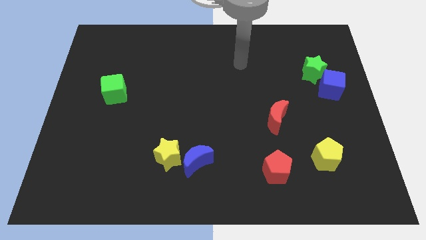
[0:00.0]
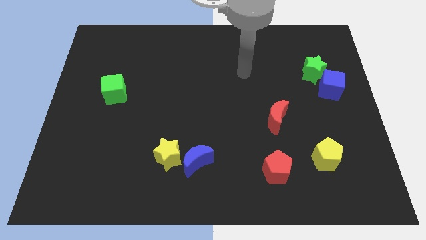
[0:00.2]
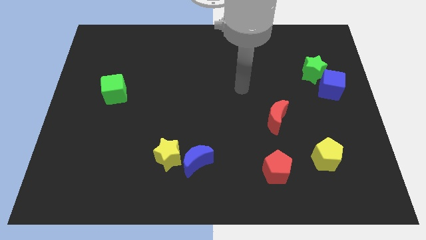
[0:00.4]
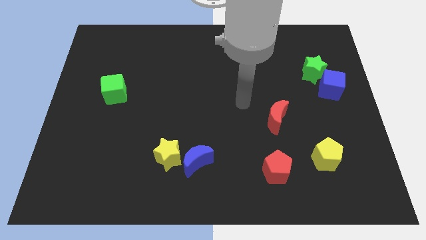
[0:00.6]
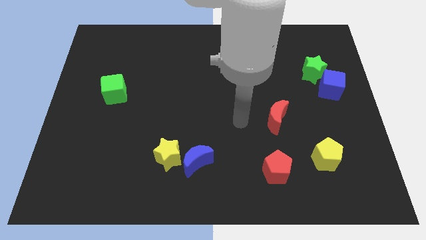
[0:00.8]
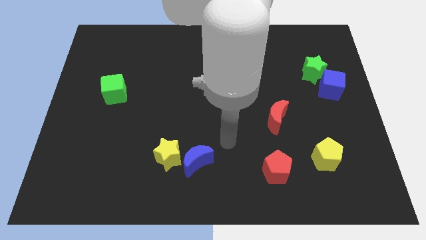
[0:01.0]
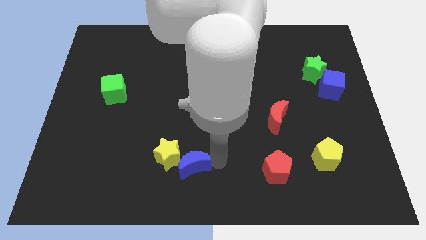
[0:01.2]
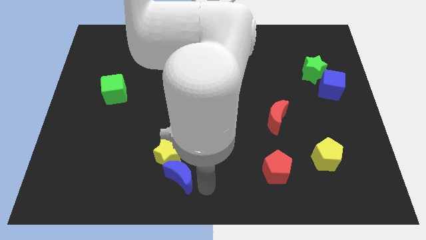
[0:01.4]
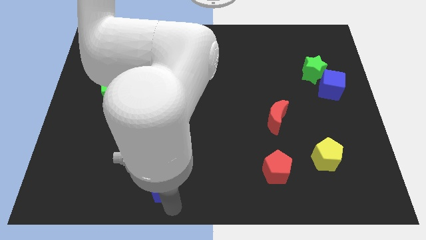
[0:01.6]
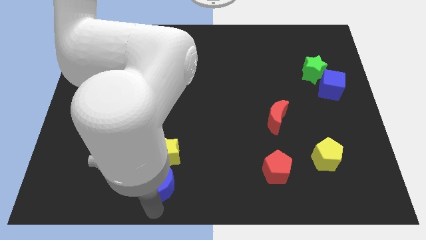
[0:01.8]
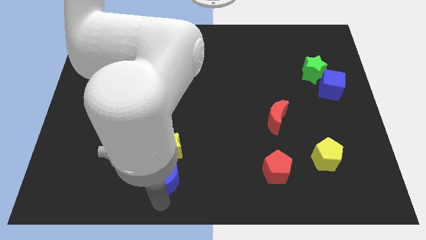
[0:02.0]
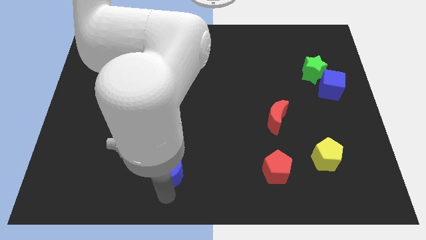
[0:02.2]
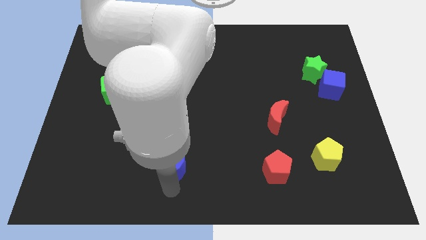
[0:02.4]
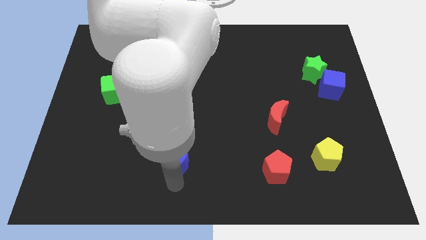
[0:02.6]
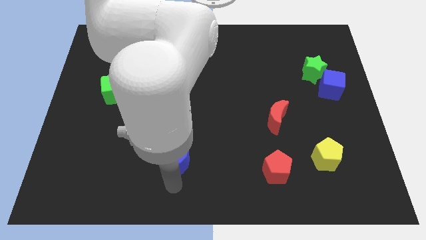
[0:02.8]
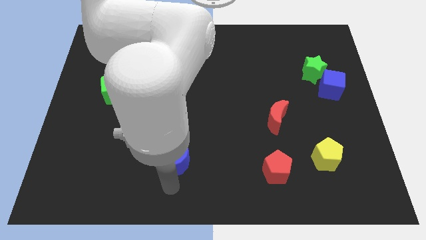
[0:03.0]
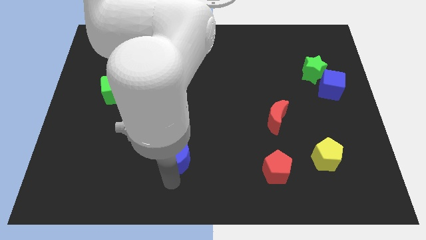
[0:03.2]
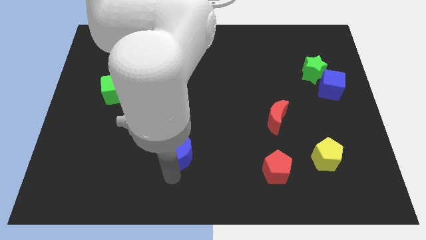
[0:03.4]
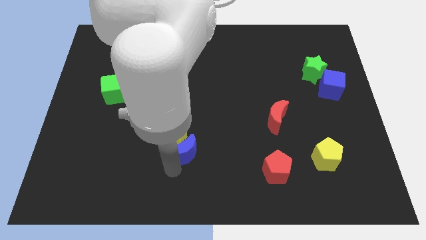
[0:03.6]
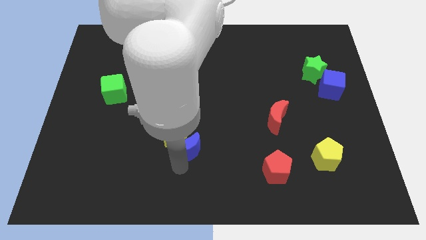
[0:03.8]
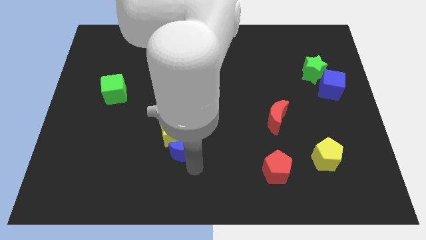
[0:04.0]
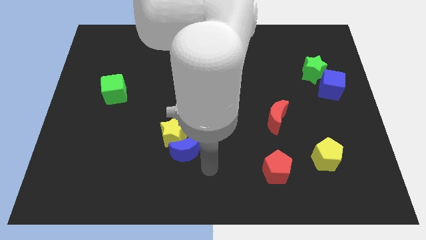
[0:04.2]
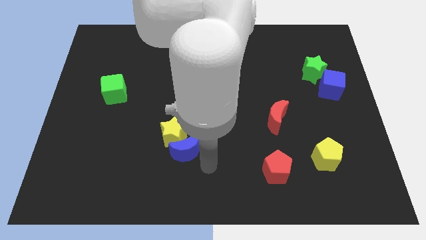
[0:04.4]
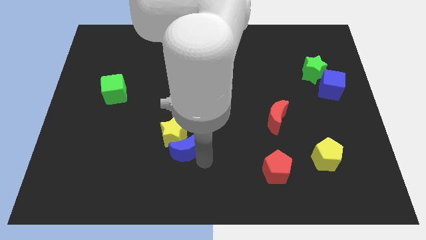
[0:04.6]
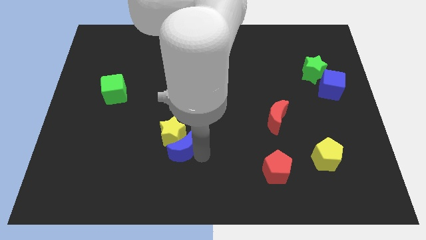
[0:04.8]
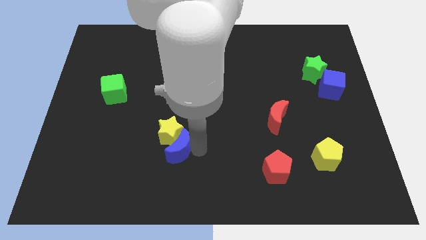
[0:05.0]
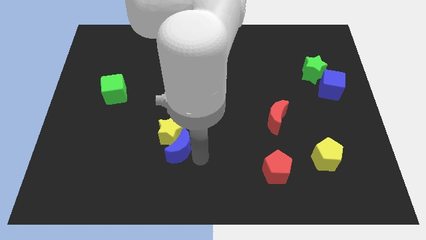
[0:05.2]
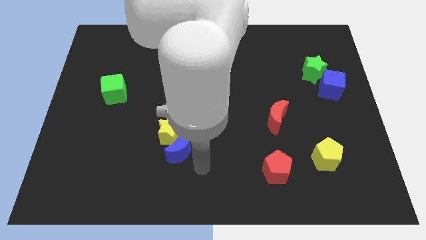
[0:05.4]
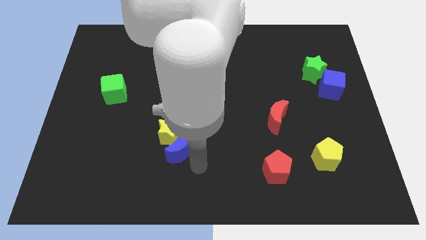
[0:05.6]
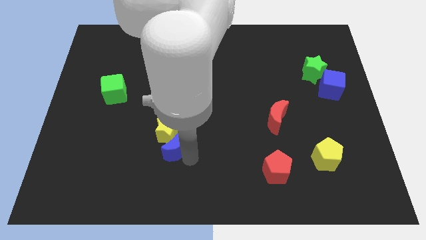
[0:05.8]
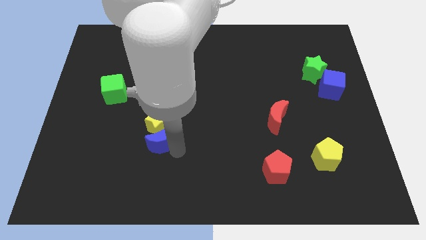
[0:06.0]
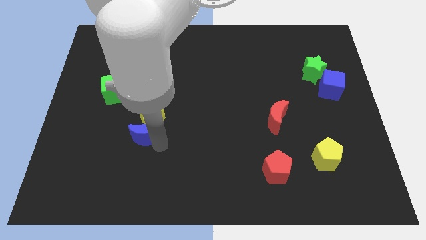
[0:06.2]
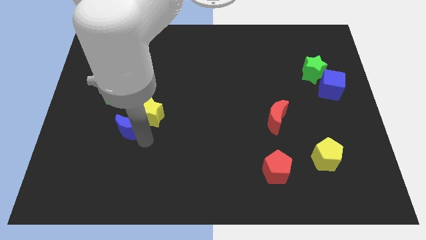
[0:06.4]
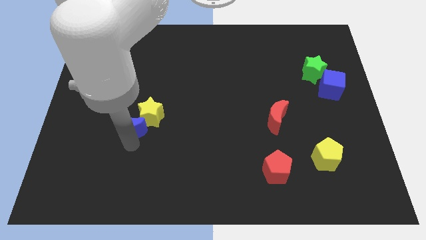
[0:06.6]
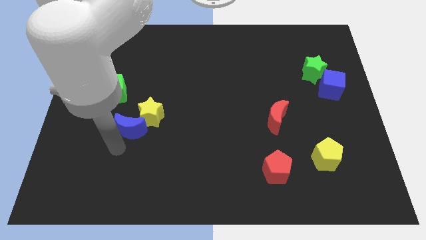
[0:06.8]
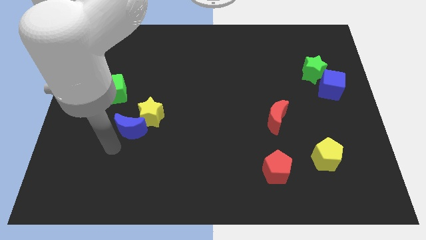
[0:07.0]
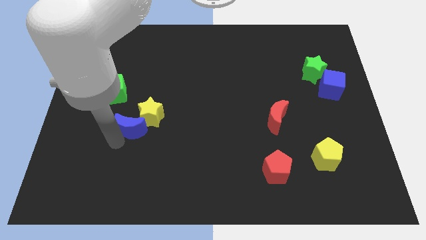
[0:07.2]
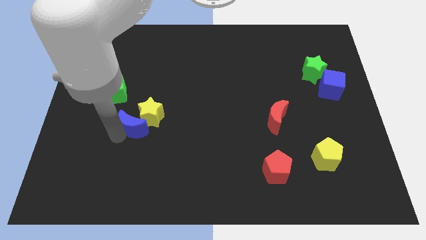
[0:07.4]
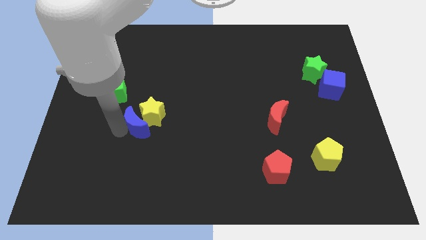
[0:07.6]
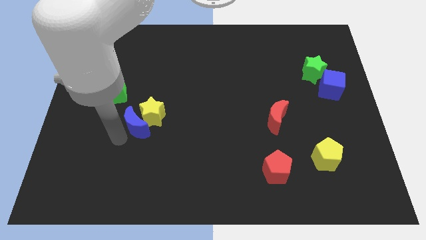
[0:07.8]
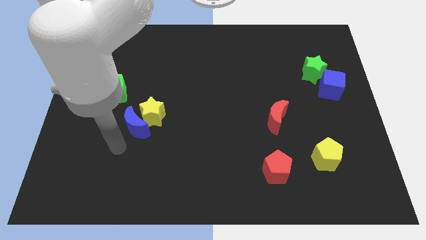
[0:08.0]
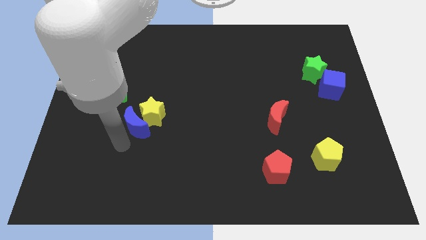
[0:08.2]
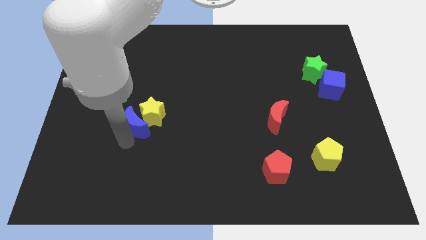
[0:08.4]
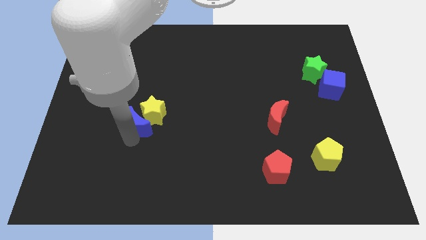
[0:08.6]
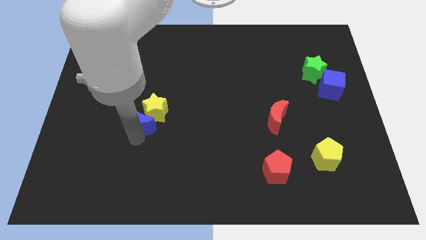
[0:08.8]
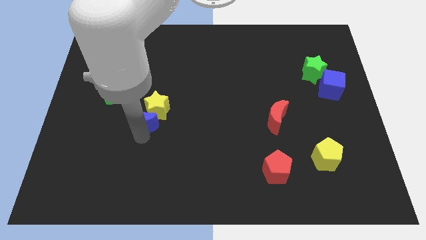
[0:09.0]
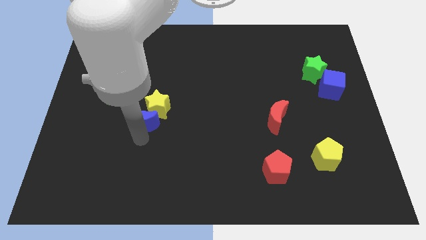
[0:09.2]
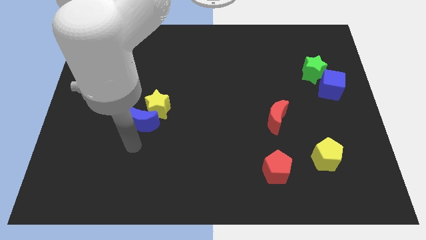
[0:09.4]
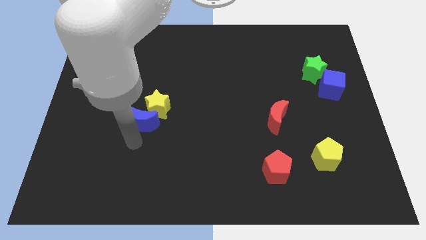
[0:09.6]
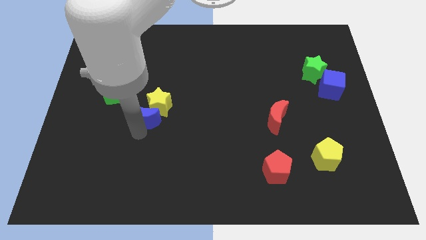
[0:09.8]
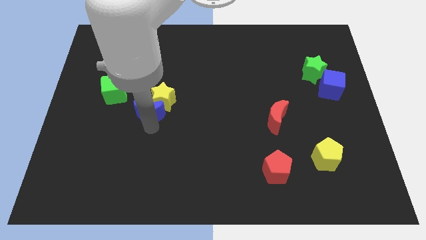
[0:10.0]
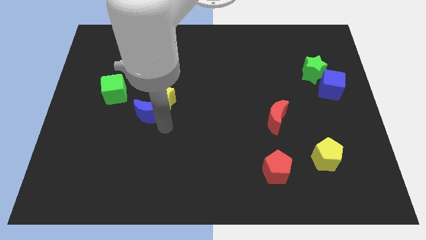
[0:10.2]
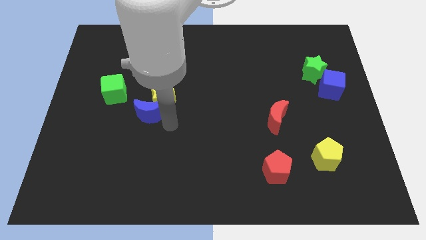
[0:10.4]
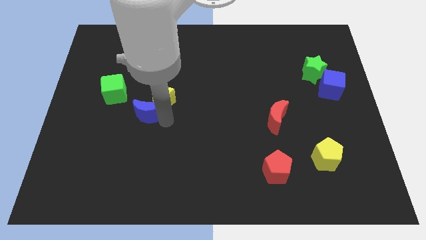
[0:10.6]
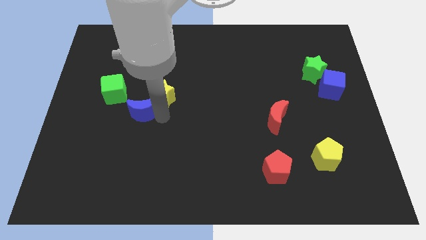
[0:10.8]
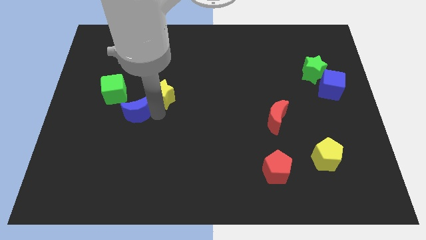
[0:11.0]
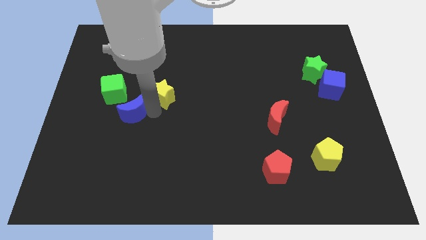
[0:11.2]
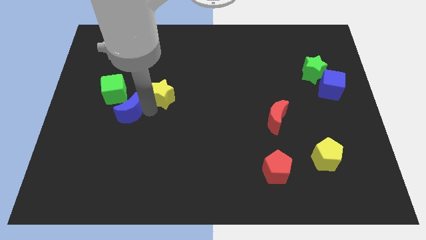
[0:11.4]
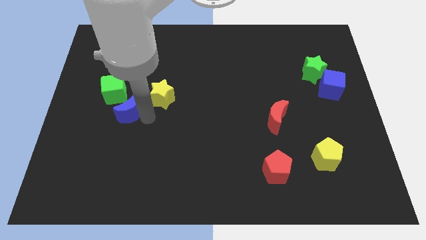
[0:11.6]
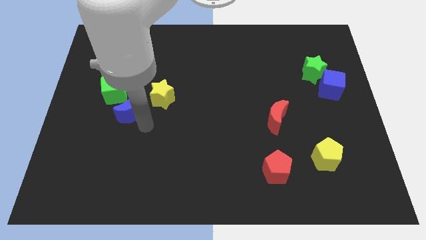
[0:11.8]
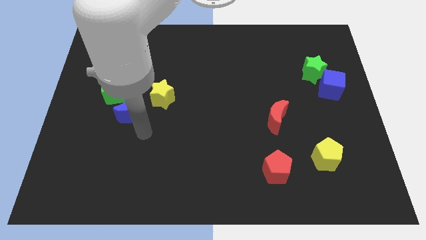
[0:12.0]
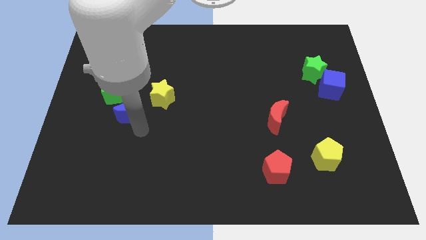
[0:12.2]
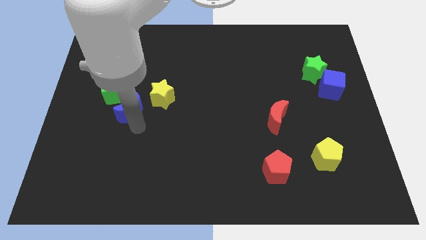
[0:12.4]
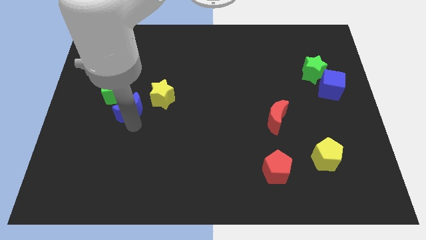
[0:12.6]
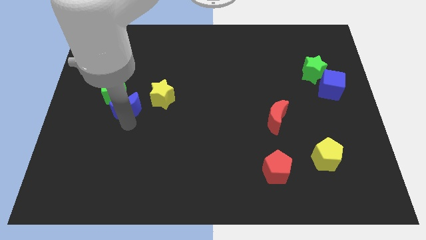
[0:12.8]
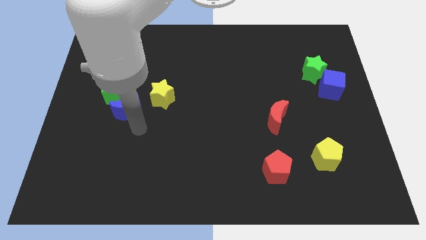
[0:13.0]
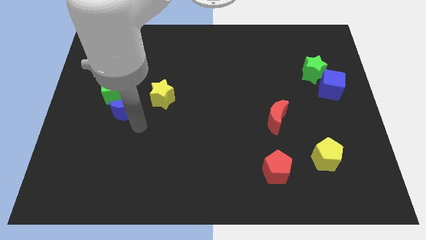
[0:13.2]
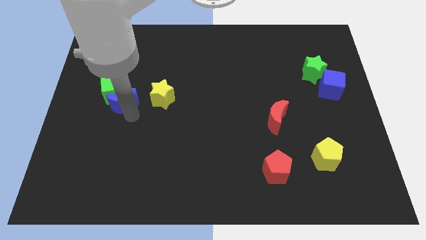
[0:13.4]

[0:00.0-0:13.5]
put the blue moon close to the green cube

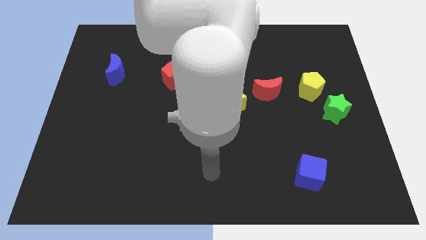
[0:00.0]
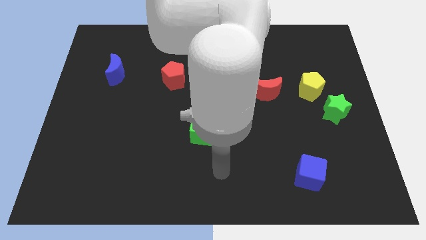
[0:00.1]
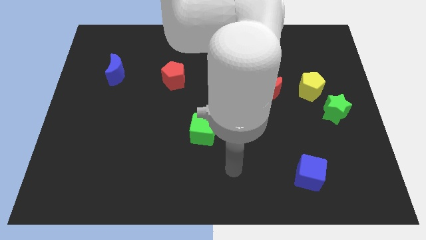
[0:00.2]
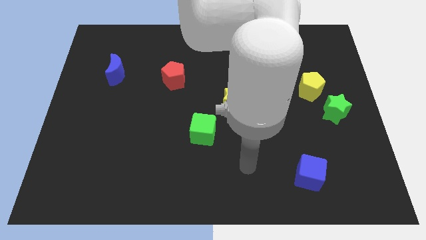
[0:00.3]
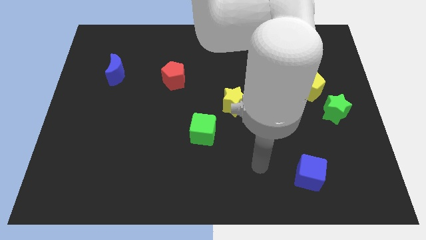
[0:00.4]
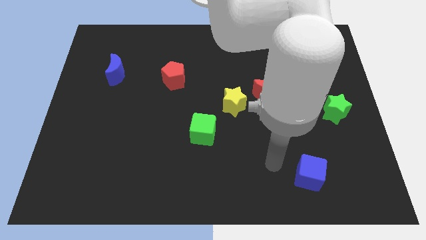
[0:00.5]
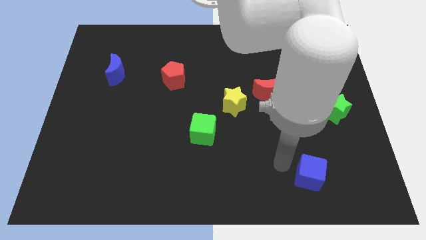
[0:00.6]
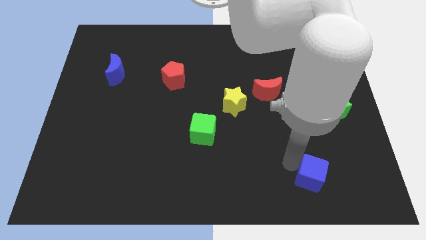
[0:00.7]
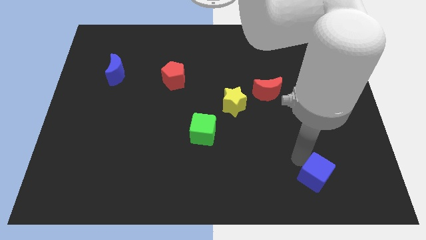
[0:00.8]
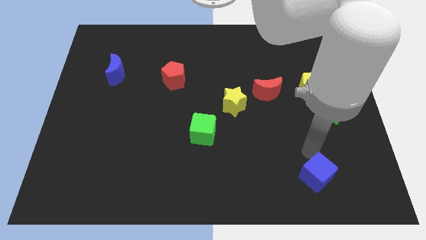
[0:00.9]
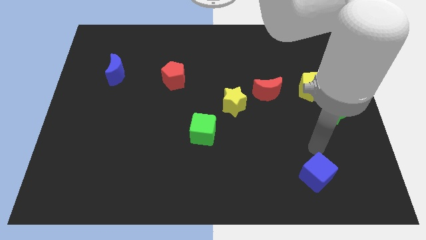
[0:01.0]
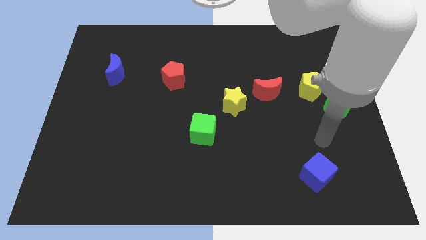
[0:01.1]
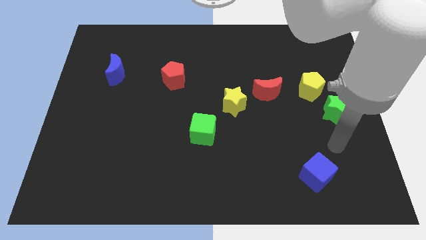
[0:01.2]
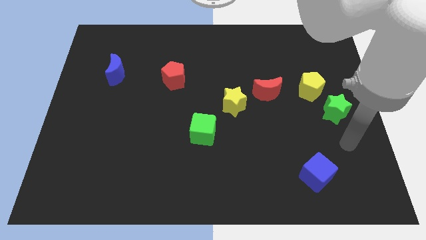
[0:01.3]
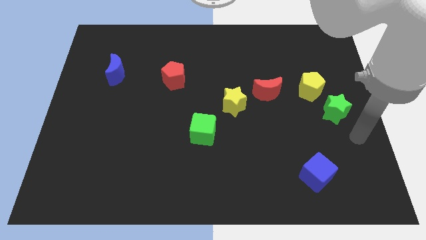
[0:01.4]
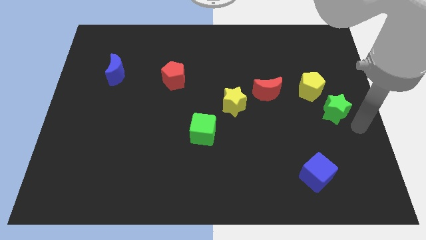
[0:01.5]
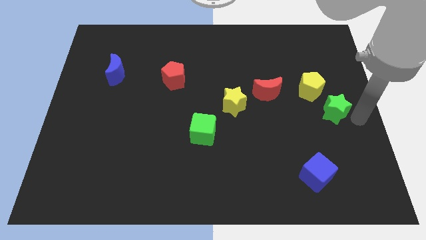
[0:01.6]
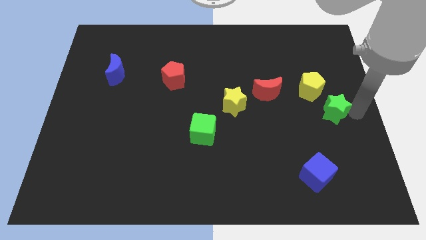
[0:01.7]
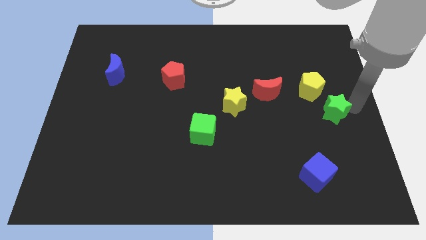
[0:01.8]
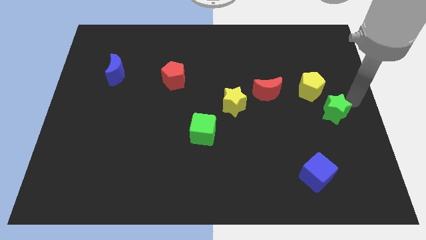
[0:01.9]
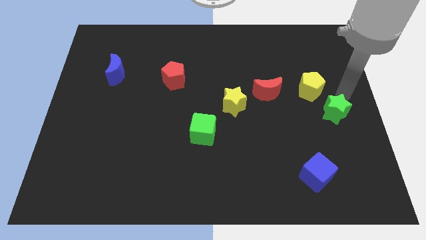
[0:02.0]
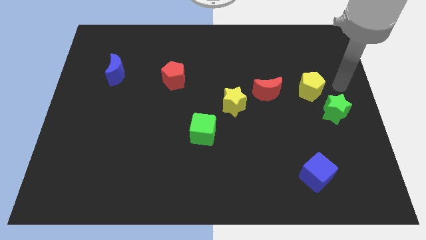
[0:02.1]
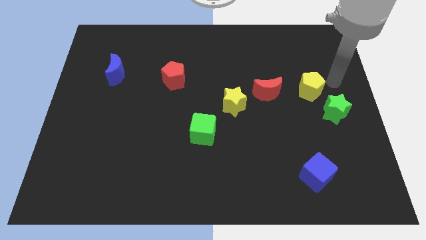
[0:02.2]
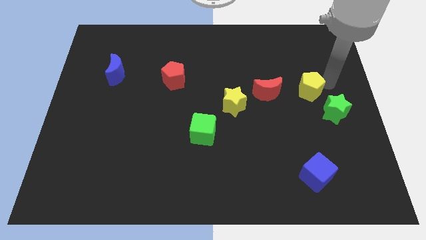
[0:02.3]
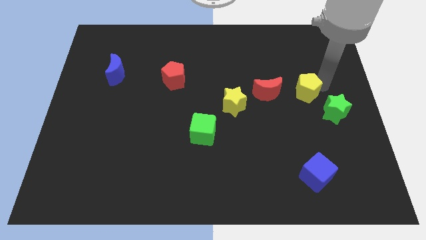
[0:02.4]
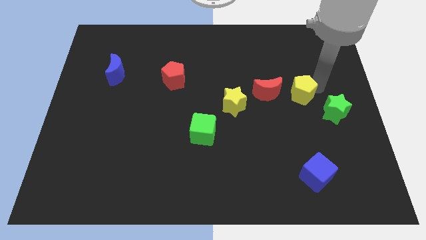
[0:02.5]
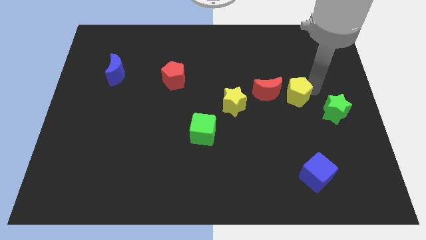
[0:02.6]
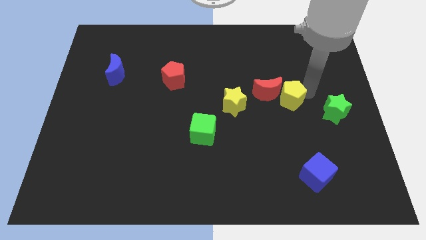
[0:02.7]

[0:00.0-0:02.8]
move the yellow pentagon to the red moon
